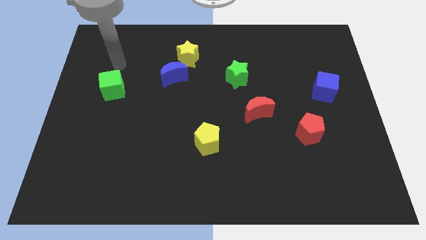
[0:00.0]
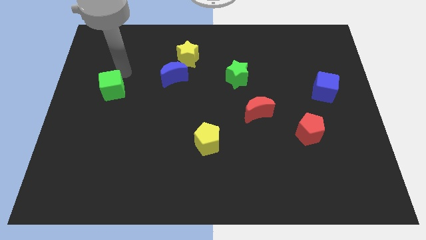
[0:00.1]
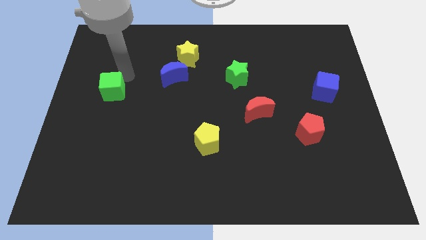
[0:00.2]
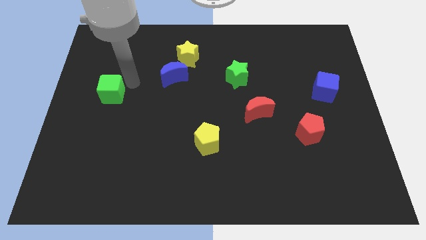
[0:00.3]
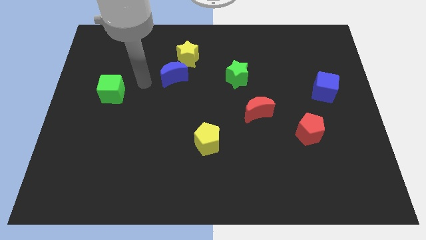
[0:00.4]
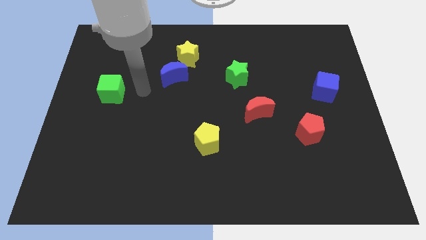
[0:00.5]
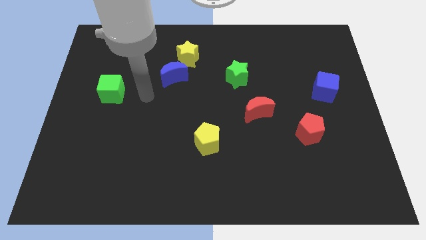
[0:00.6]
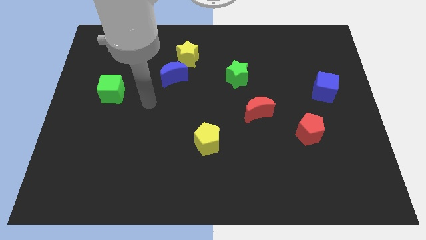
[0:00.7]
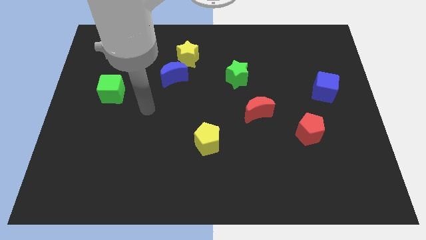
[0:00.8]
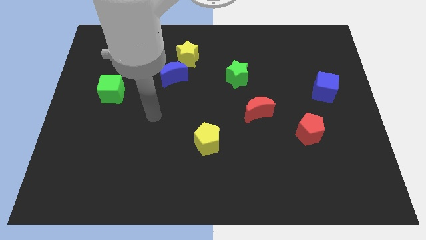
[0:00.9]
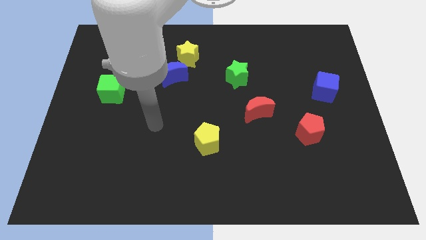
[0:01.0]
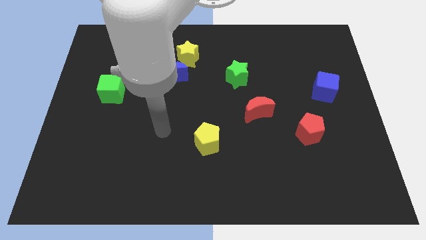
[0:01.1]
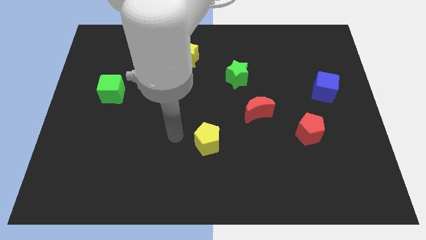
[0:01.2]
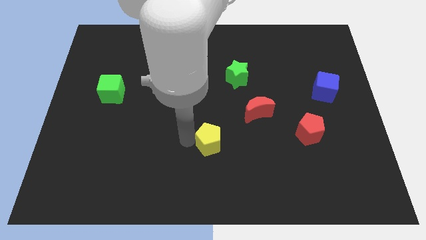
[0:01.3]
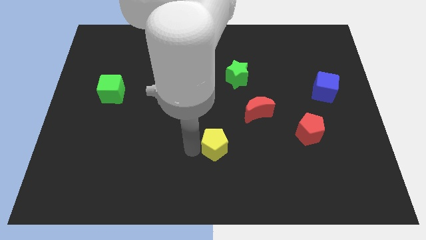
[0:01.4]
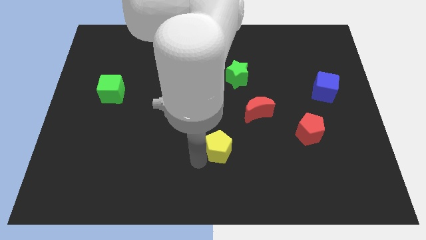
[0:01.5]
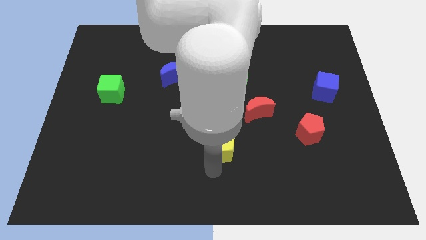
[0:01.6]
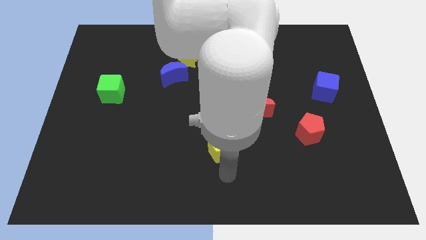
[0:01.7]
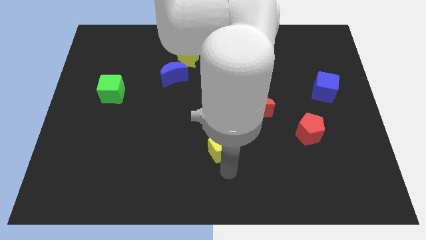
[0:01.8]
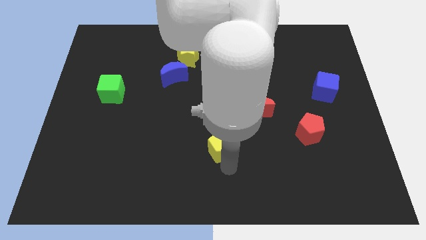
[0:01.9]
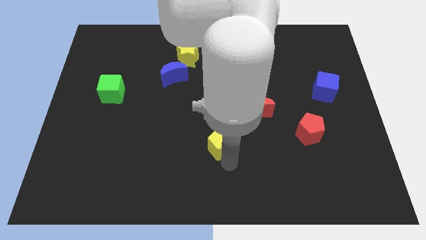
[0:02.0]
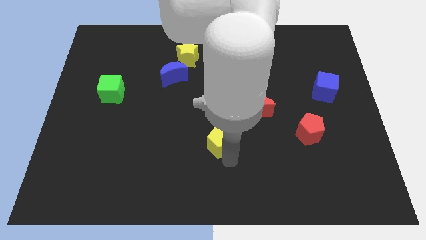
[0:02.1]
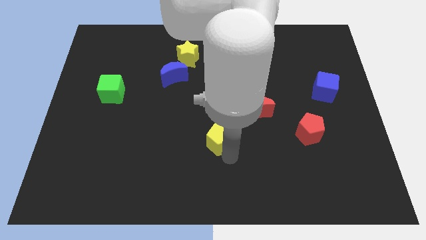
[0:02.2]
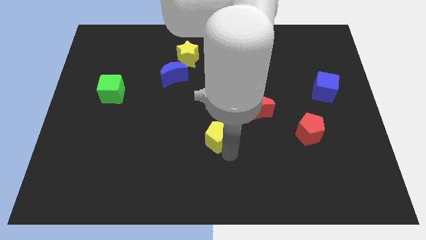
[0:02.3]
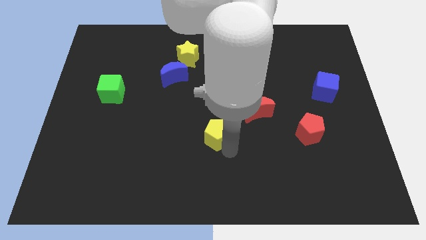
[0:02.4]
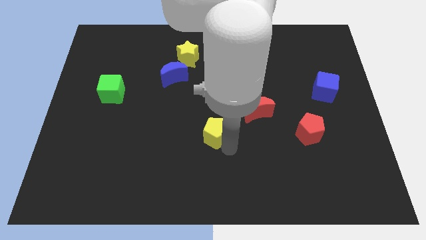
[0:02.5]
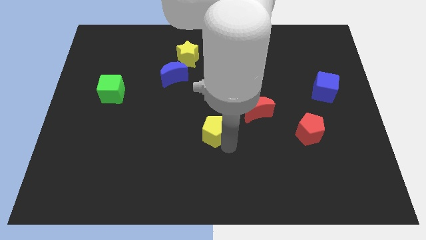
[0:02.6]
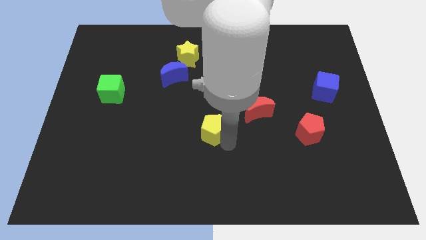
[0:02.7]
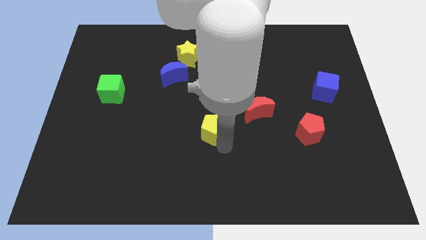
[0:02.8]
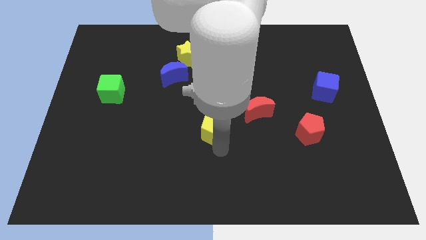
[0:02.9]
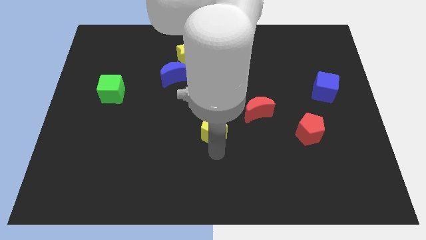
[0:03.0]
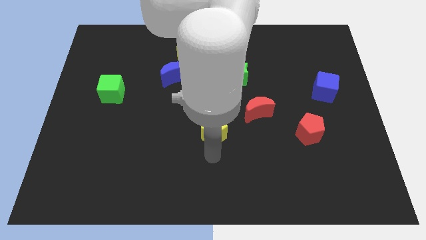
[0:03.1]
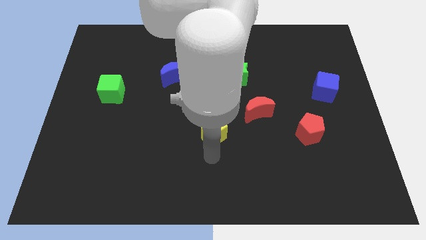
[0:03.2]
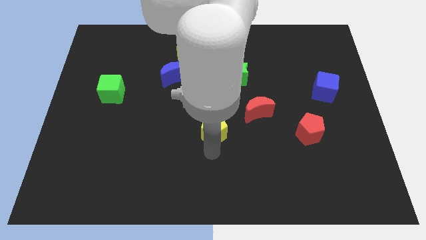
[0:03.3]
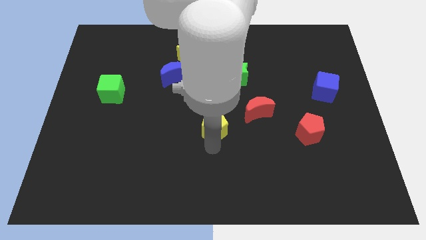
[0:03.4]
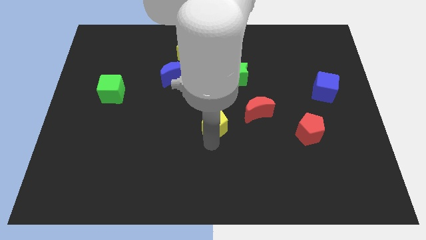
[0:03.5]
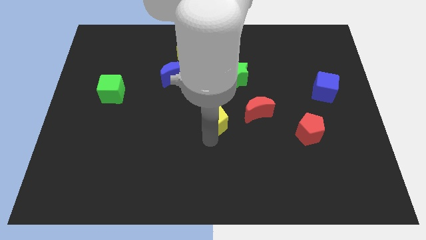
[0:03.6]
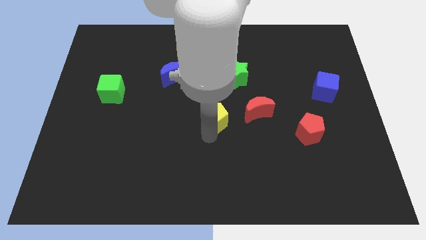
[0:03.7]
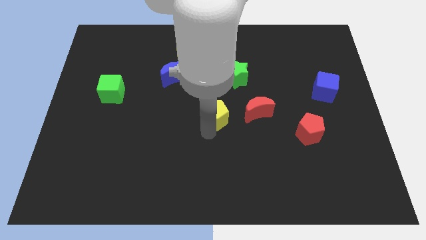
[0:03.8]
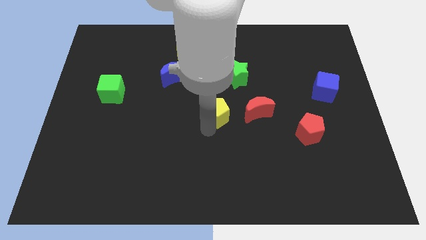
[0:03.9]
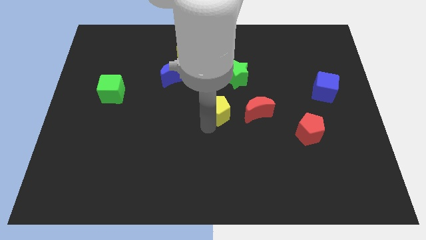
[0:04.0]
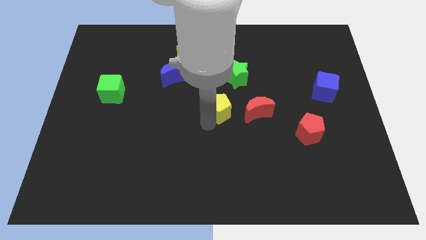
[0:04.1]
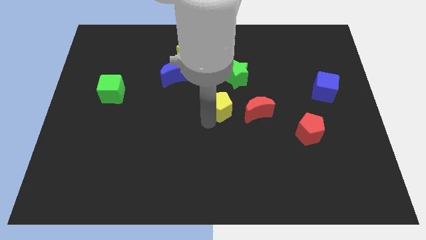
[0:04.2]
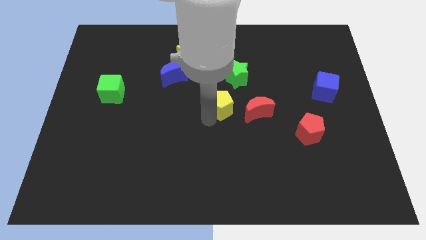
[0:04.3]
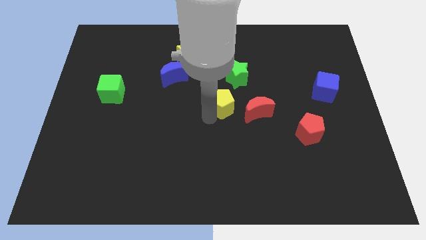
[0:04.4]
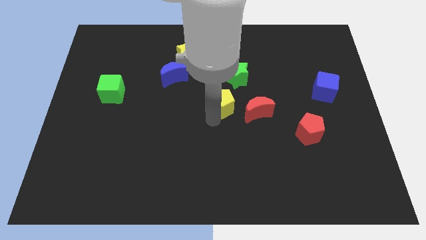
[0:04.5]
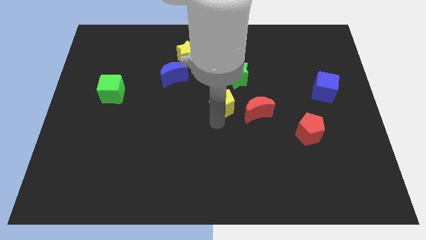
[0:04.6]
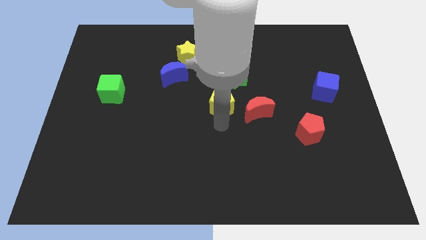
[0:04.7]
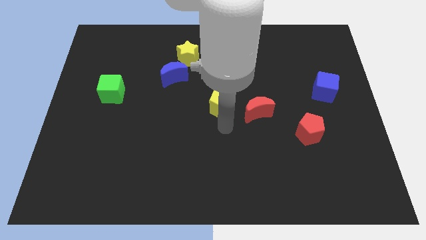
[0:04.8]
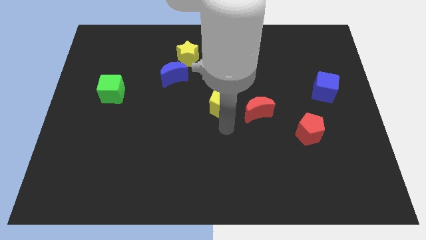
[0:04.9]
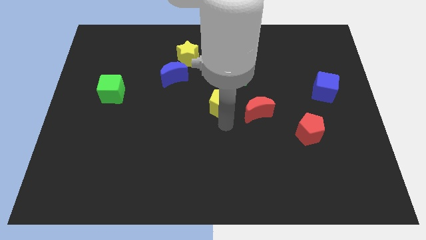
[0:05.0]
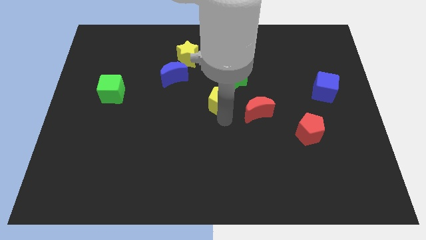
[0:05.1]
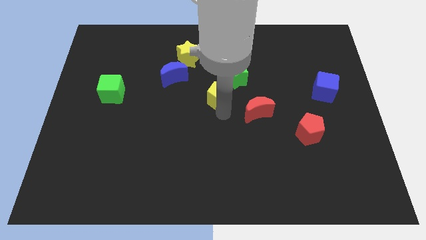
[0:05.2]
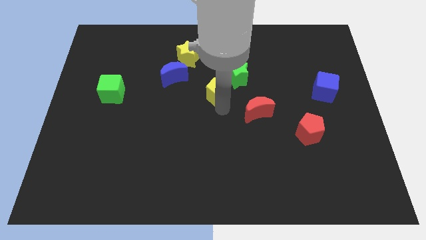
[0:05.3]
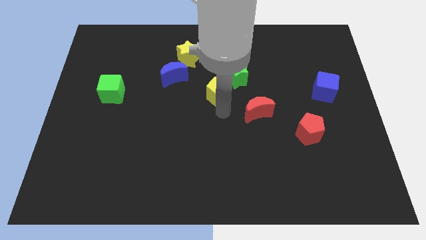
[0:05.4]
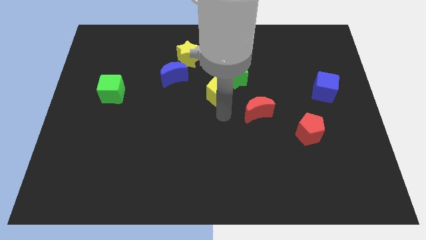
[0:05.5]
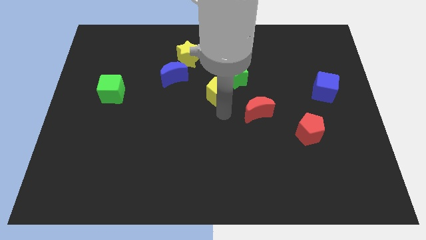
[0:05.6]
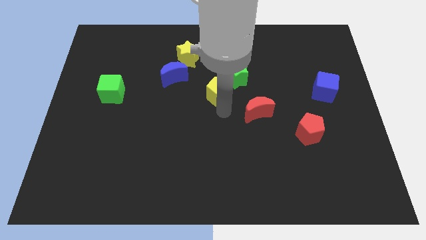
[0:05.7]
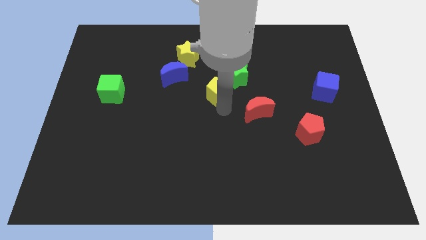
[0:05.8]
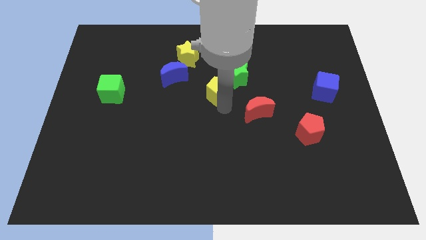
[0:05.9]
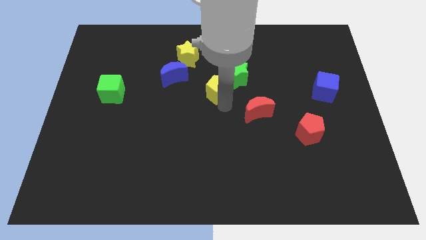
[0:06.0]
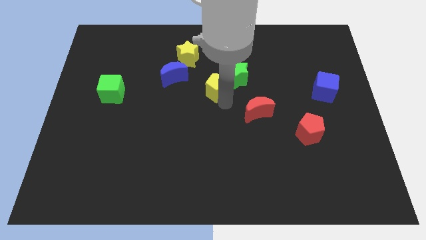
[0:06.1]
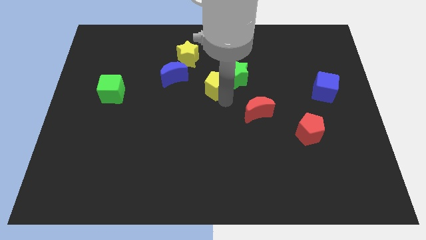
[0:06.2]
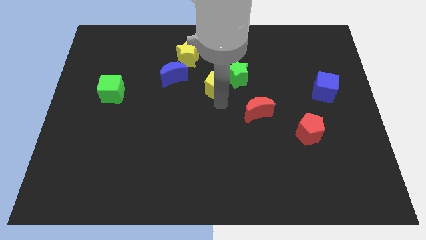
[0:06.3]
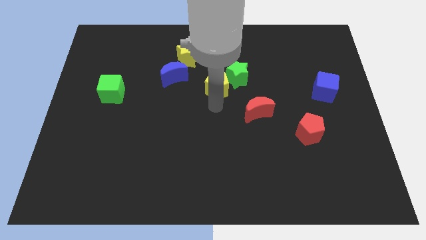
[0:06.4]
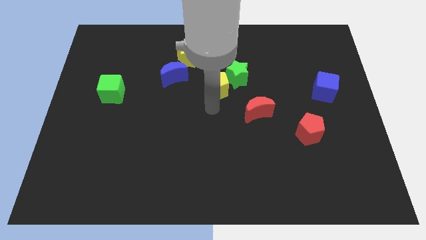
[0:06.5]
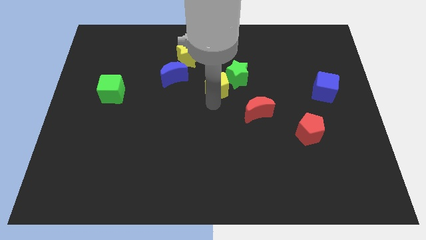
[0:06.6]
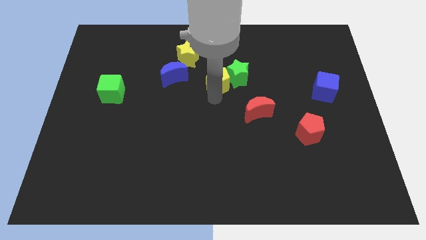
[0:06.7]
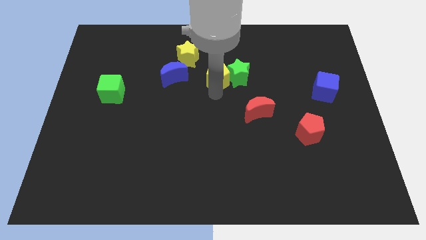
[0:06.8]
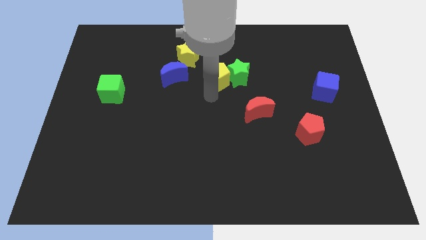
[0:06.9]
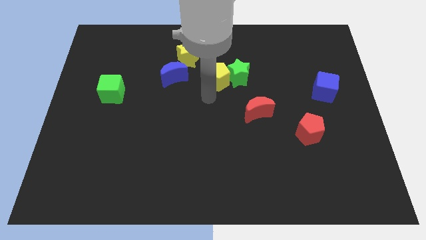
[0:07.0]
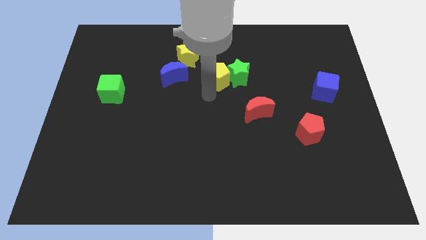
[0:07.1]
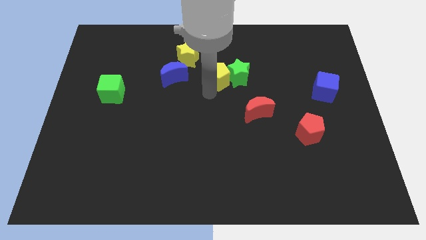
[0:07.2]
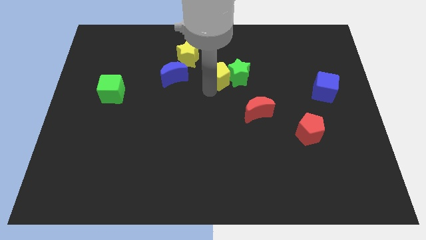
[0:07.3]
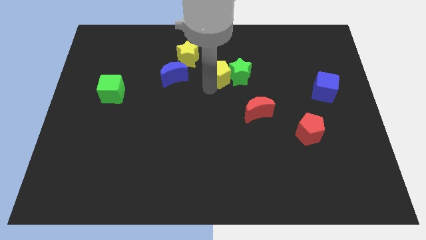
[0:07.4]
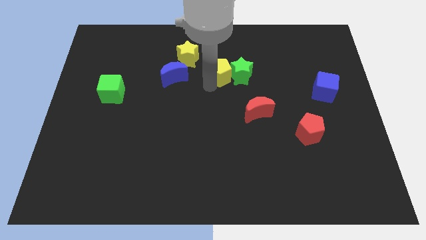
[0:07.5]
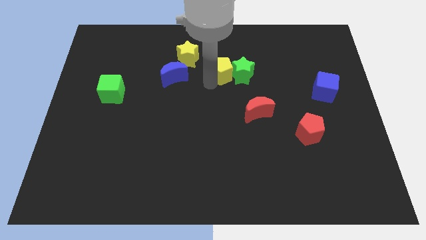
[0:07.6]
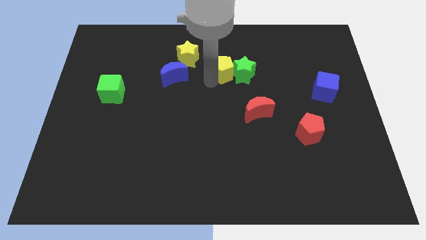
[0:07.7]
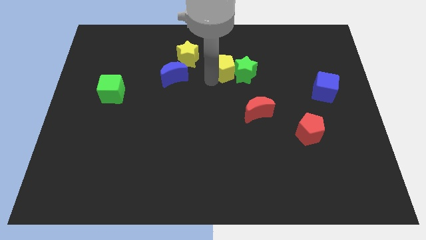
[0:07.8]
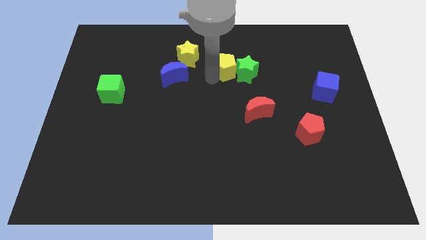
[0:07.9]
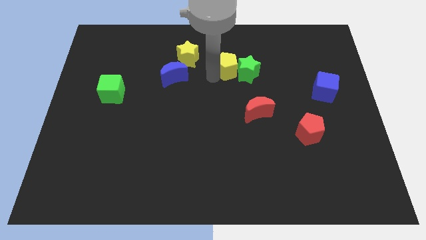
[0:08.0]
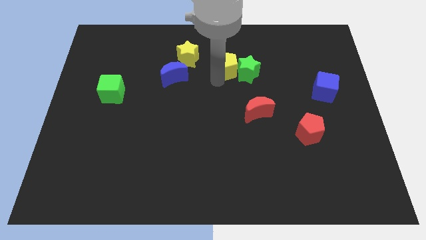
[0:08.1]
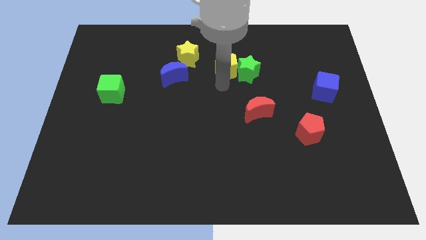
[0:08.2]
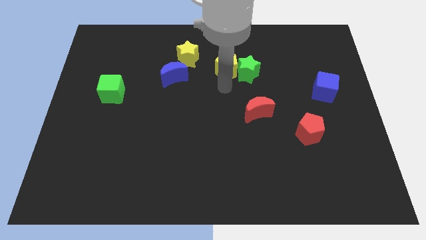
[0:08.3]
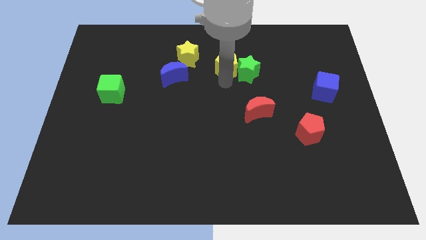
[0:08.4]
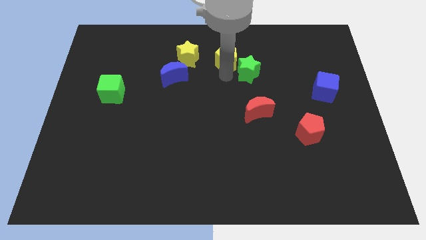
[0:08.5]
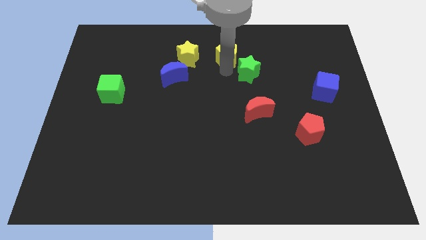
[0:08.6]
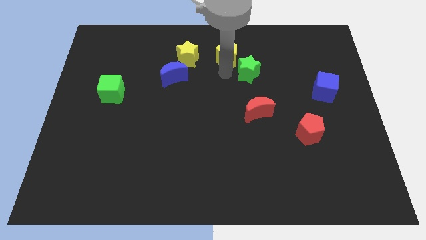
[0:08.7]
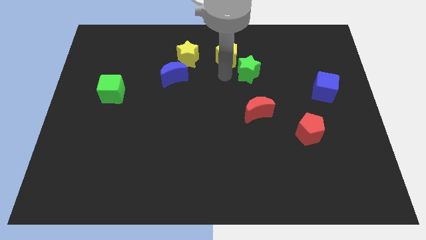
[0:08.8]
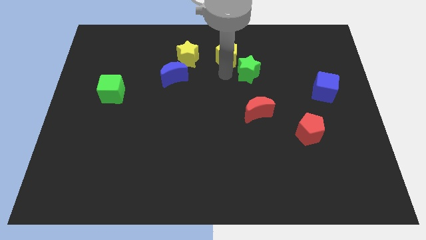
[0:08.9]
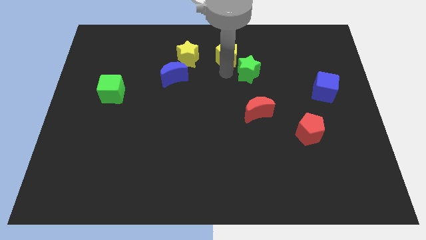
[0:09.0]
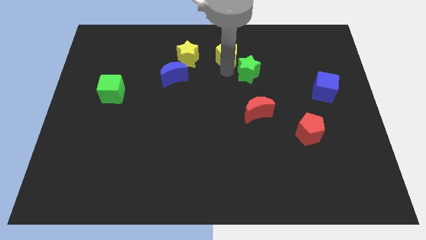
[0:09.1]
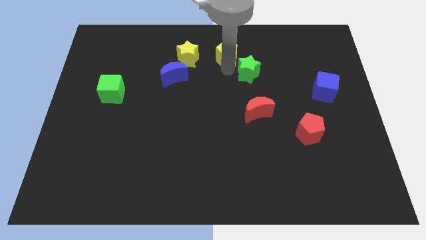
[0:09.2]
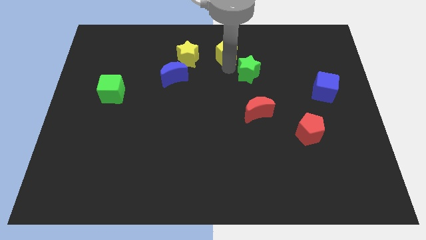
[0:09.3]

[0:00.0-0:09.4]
put the yellow pentagon to the top side
